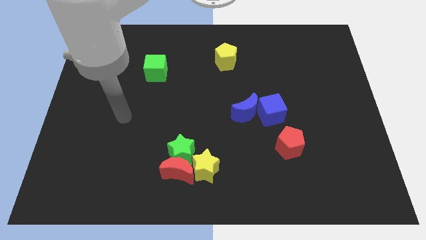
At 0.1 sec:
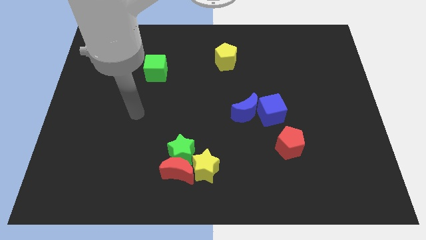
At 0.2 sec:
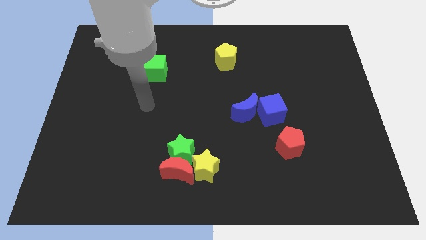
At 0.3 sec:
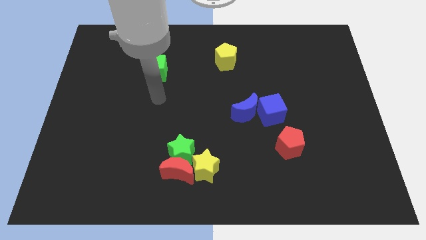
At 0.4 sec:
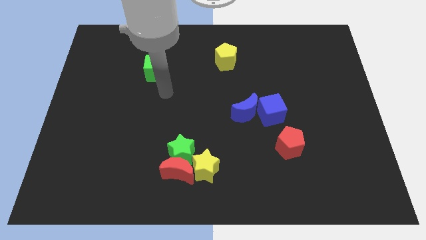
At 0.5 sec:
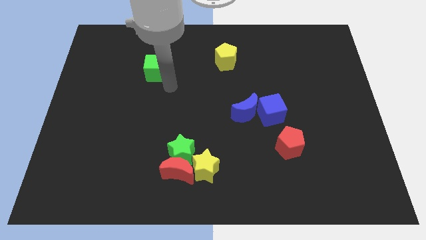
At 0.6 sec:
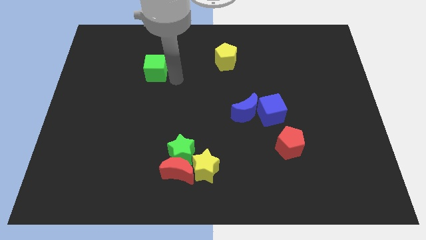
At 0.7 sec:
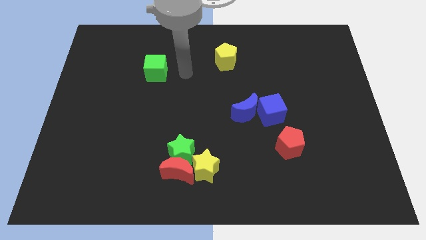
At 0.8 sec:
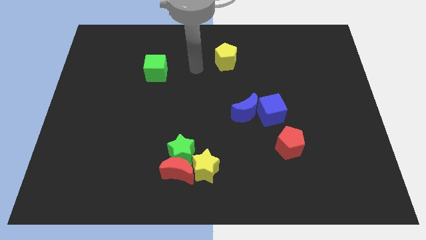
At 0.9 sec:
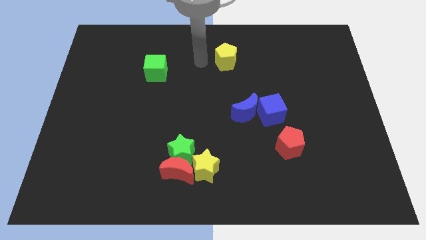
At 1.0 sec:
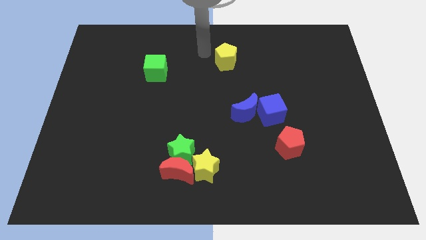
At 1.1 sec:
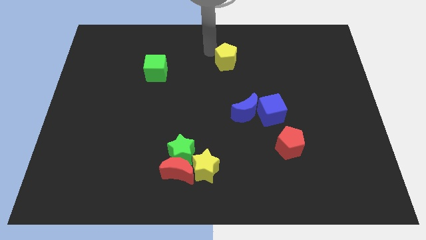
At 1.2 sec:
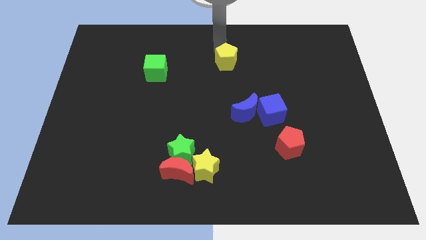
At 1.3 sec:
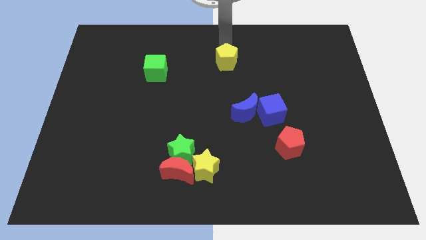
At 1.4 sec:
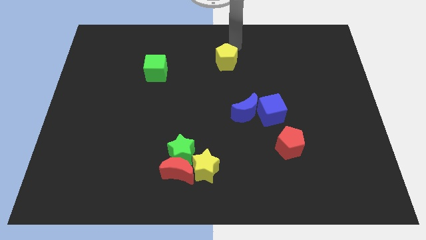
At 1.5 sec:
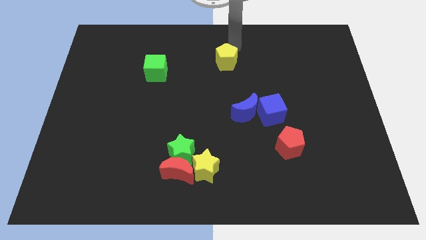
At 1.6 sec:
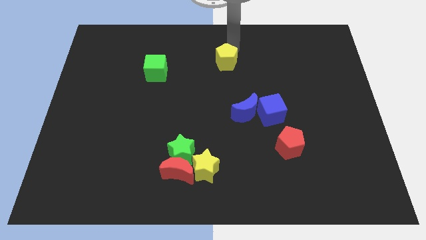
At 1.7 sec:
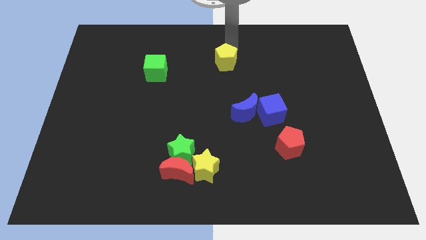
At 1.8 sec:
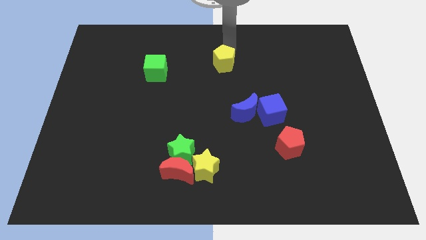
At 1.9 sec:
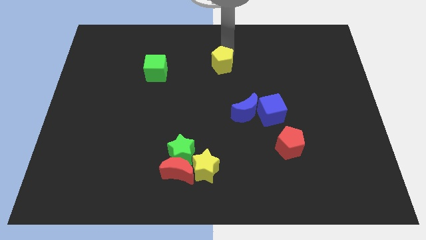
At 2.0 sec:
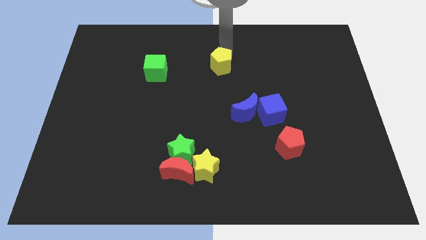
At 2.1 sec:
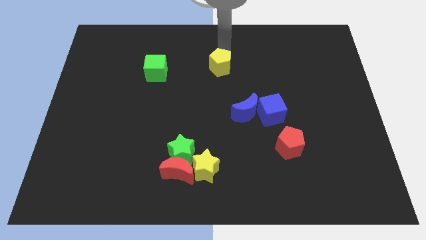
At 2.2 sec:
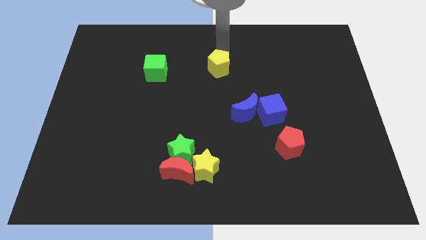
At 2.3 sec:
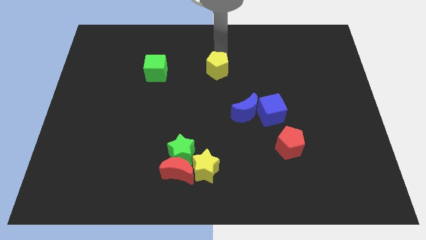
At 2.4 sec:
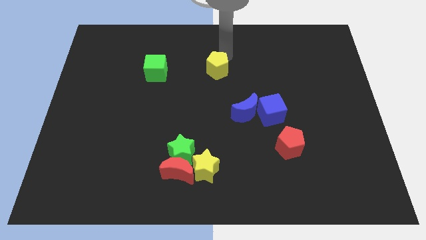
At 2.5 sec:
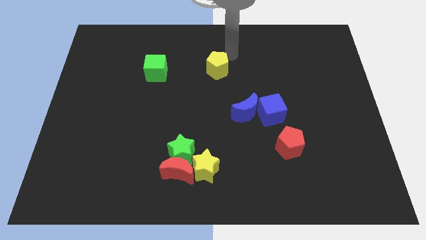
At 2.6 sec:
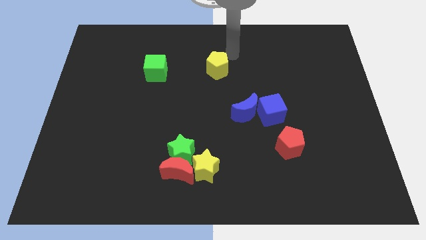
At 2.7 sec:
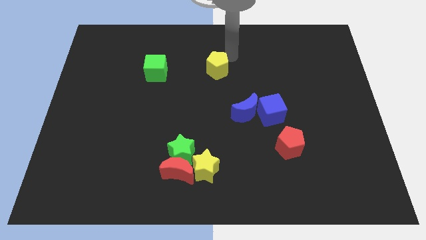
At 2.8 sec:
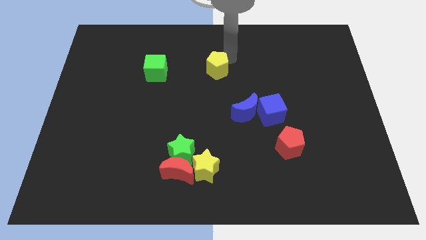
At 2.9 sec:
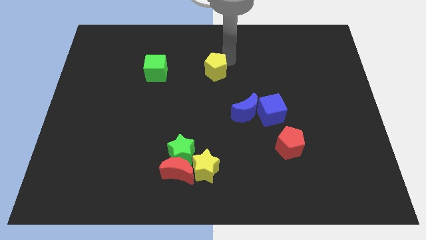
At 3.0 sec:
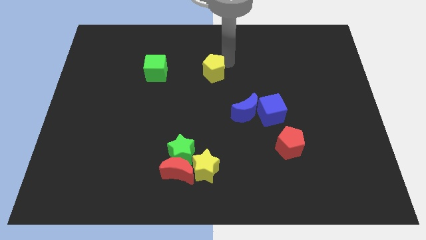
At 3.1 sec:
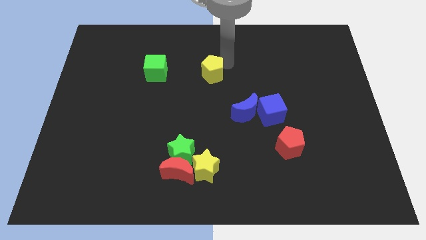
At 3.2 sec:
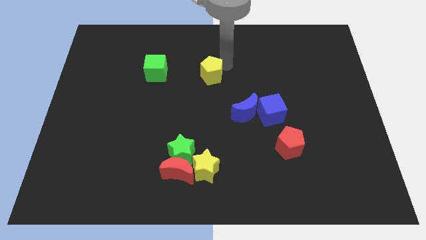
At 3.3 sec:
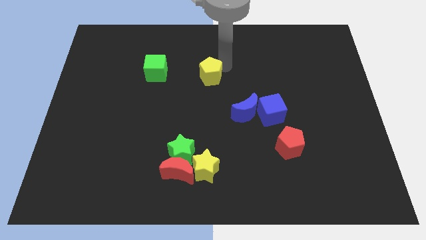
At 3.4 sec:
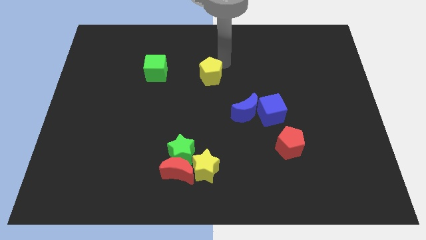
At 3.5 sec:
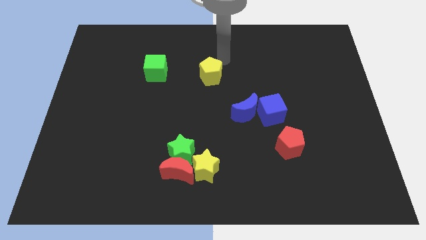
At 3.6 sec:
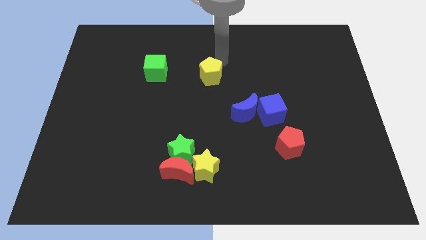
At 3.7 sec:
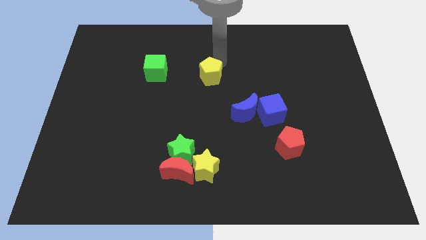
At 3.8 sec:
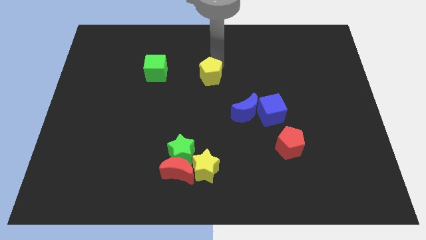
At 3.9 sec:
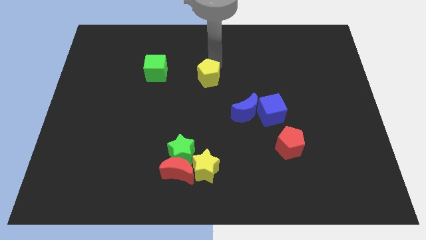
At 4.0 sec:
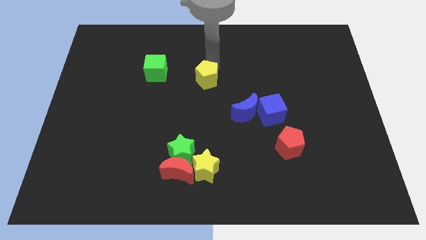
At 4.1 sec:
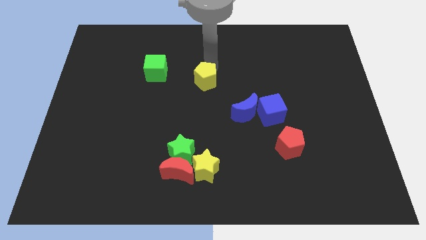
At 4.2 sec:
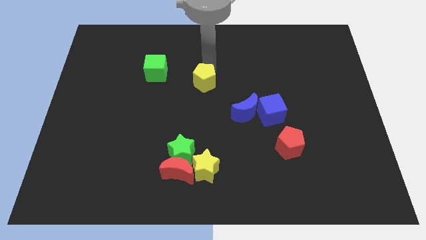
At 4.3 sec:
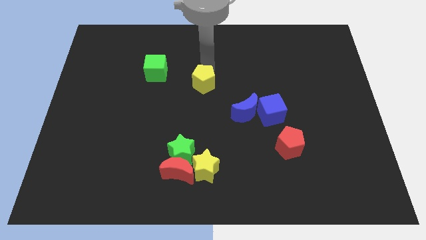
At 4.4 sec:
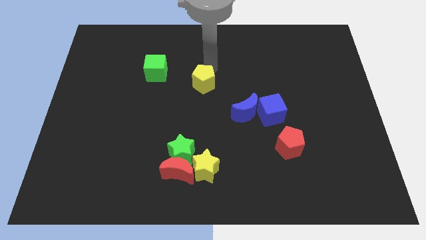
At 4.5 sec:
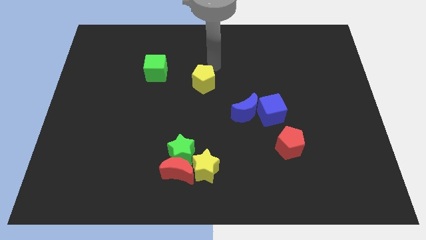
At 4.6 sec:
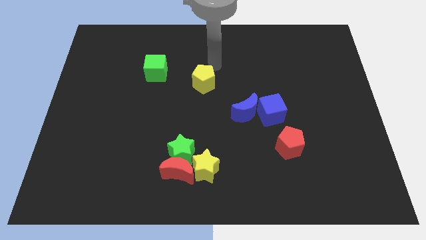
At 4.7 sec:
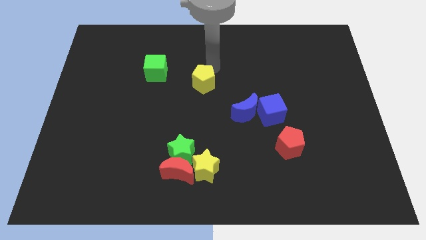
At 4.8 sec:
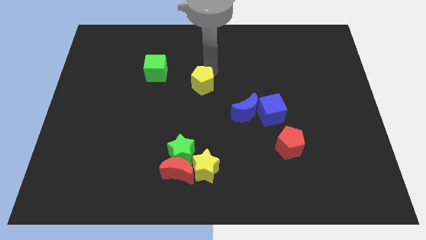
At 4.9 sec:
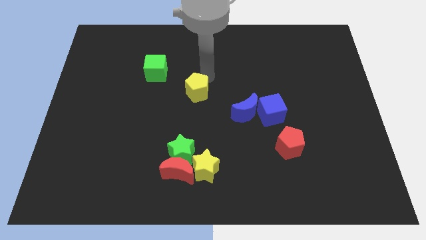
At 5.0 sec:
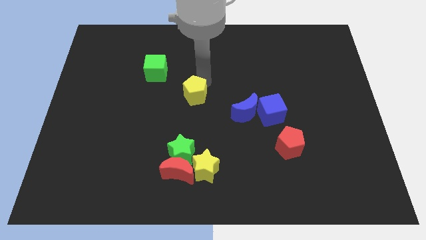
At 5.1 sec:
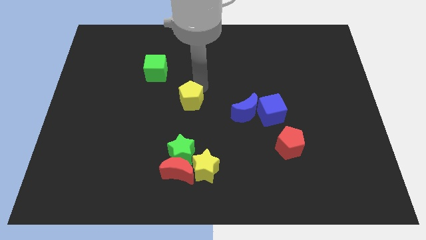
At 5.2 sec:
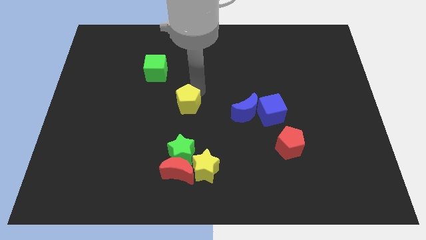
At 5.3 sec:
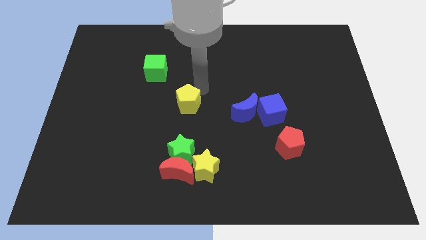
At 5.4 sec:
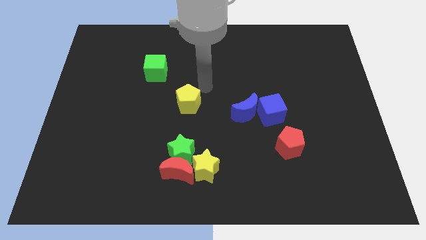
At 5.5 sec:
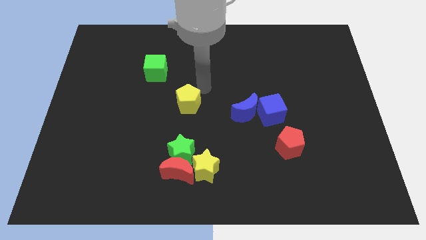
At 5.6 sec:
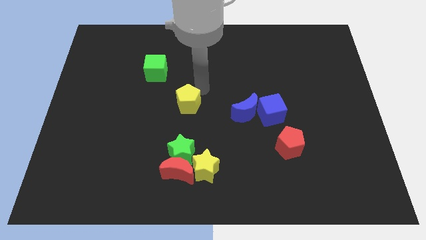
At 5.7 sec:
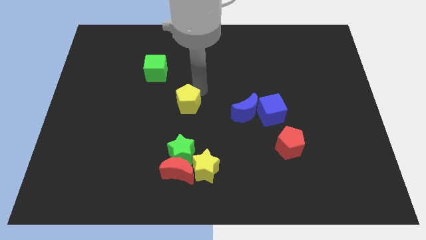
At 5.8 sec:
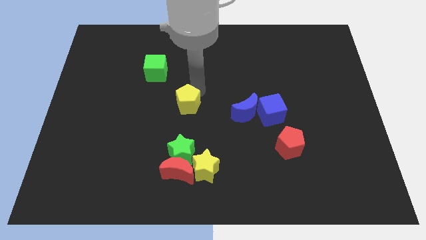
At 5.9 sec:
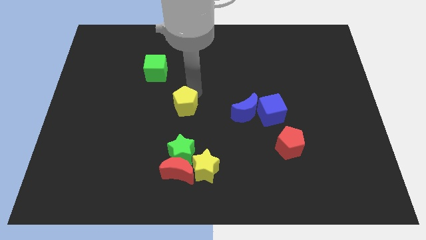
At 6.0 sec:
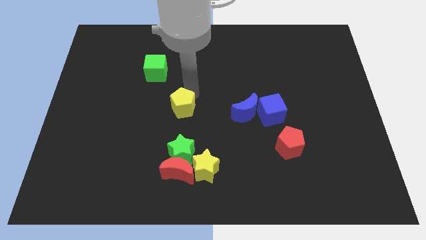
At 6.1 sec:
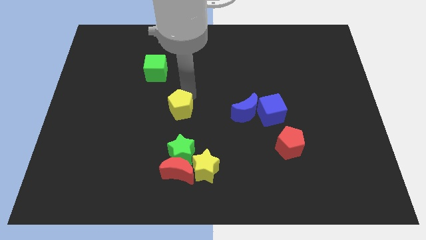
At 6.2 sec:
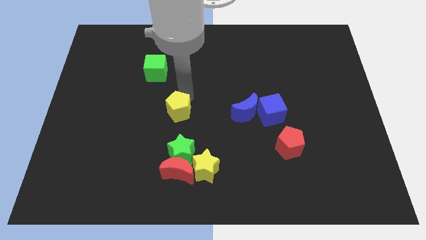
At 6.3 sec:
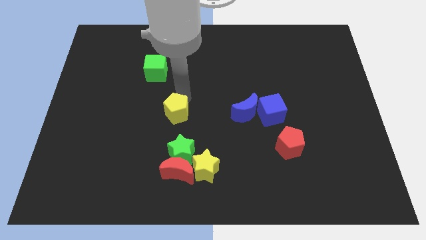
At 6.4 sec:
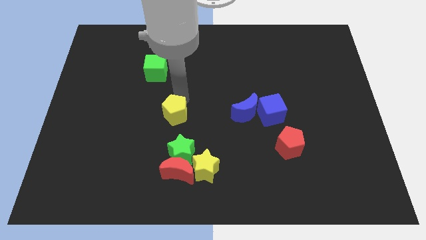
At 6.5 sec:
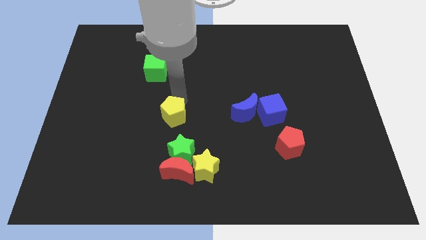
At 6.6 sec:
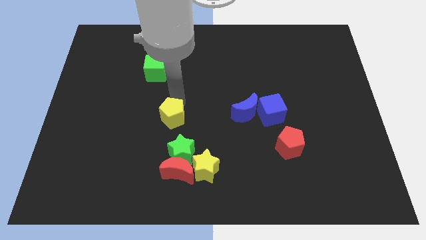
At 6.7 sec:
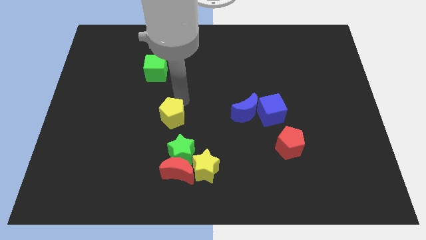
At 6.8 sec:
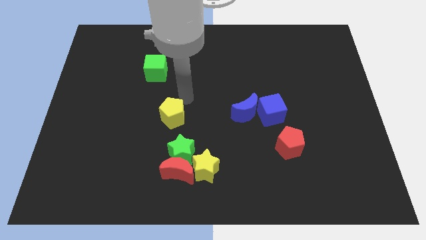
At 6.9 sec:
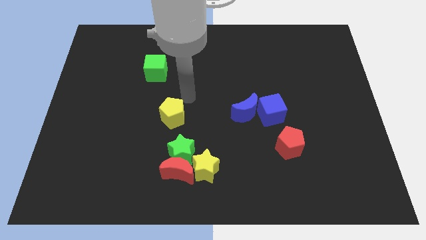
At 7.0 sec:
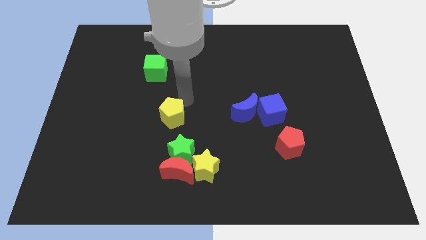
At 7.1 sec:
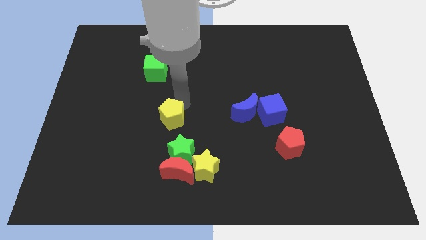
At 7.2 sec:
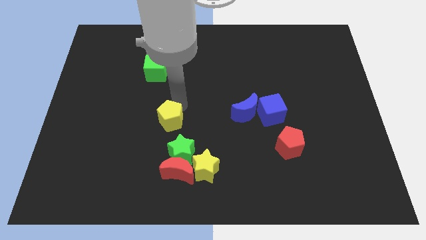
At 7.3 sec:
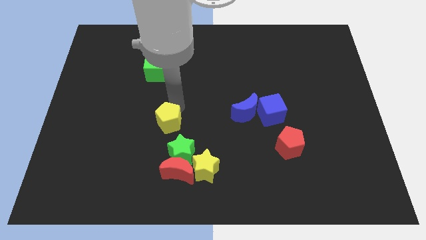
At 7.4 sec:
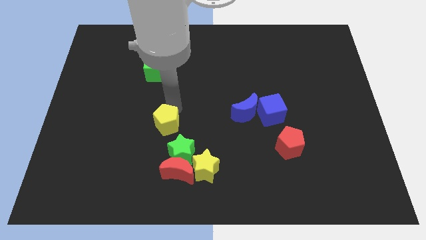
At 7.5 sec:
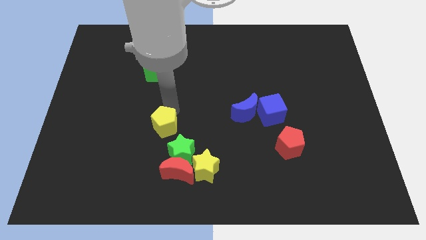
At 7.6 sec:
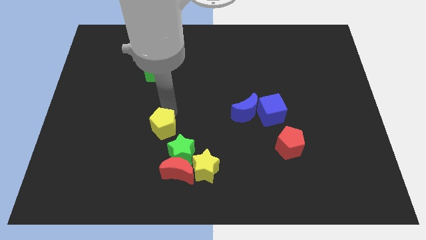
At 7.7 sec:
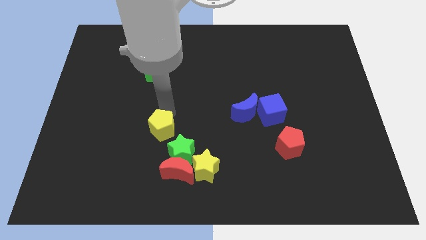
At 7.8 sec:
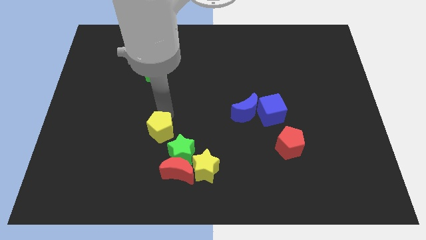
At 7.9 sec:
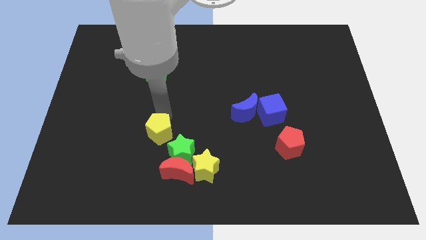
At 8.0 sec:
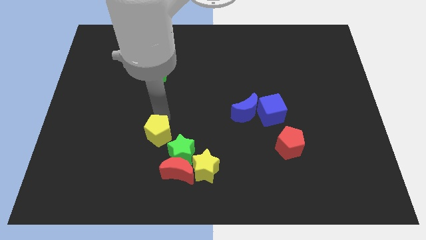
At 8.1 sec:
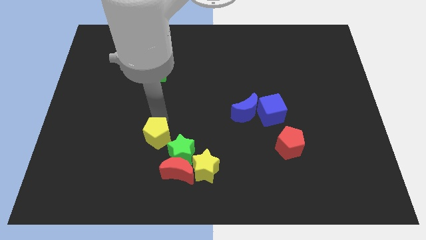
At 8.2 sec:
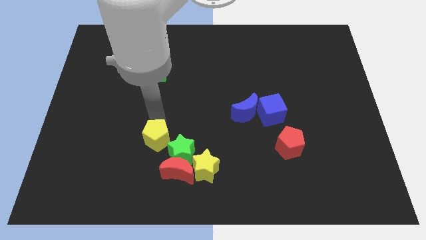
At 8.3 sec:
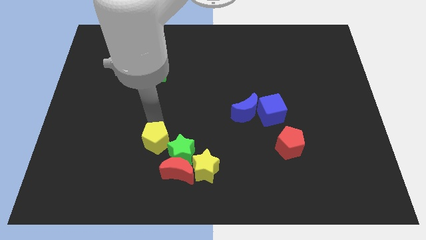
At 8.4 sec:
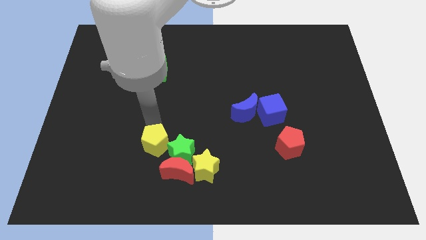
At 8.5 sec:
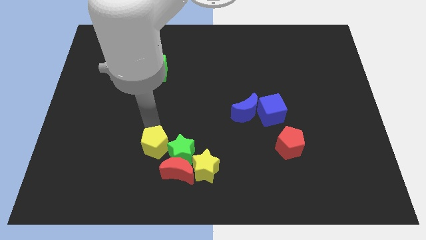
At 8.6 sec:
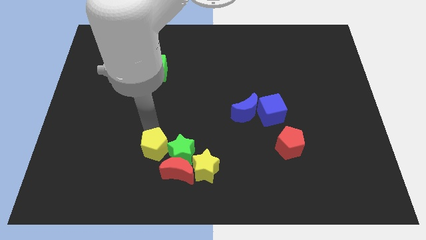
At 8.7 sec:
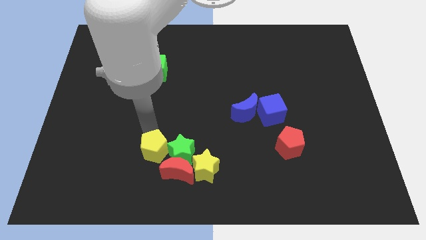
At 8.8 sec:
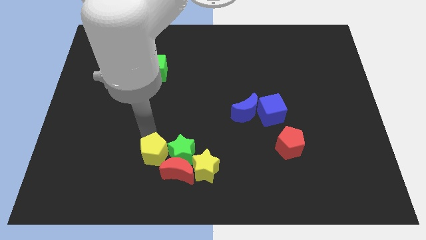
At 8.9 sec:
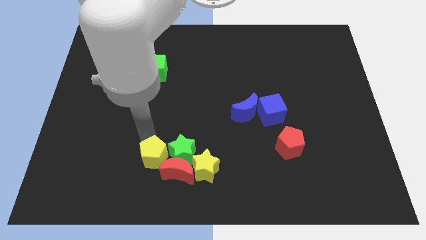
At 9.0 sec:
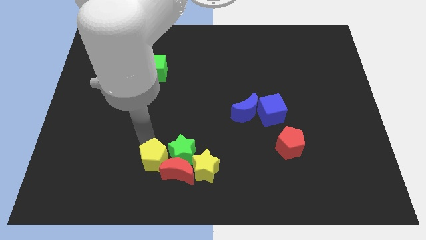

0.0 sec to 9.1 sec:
slide the yellow pentagon towards the red moon
